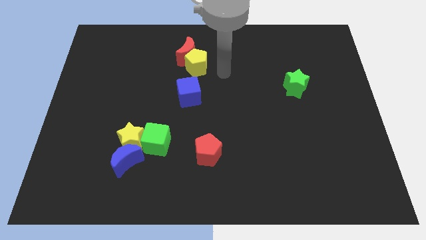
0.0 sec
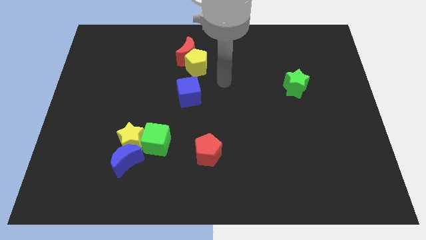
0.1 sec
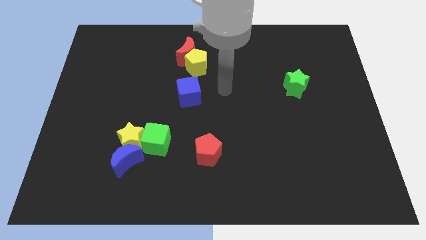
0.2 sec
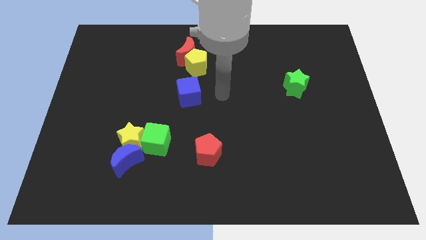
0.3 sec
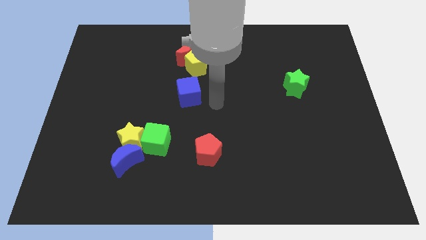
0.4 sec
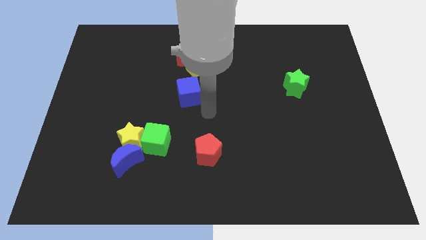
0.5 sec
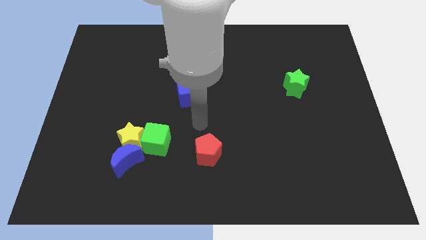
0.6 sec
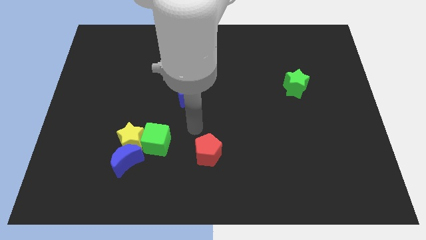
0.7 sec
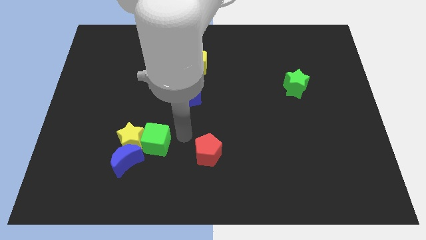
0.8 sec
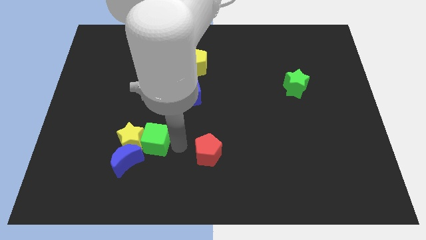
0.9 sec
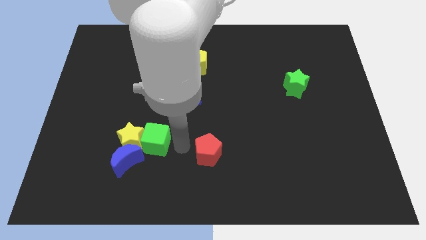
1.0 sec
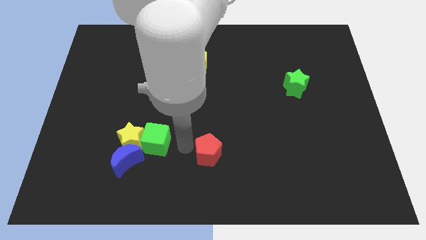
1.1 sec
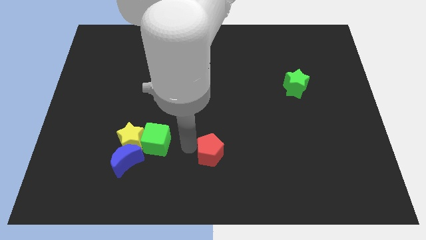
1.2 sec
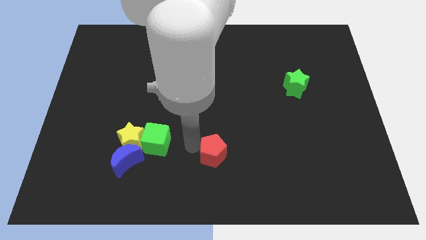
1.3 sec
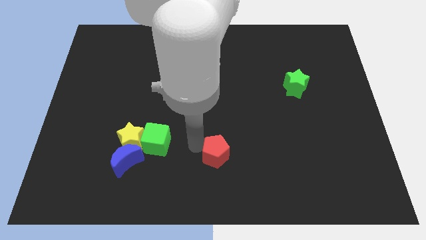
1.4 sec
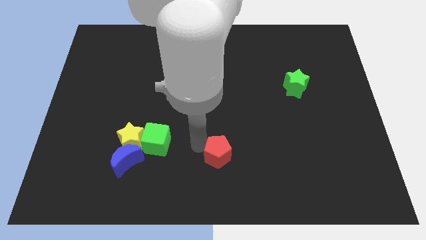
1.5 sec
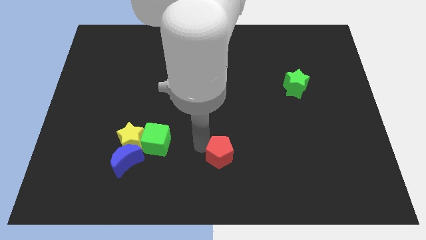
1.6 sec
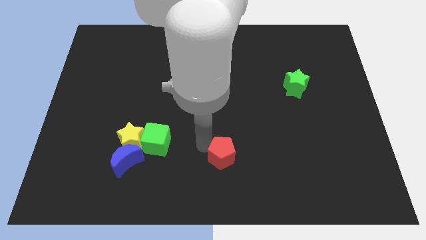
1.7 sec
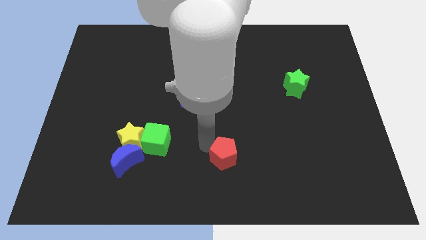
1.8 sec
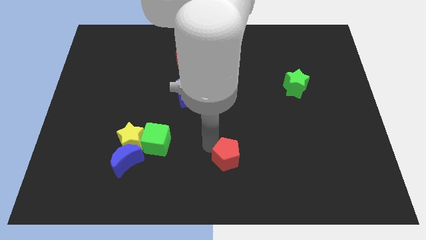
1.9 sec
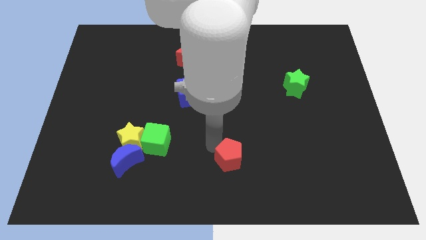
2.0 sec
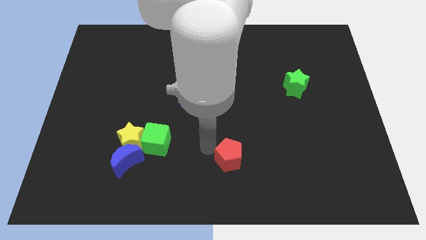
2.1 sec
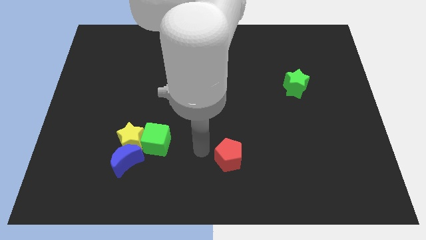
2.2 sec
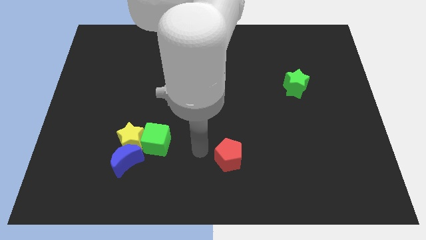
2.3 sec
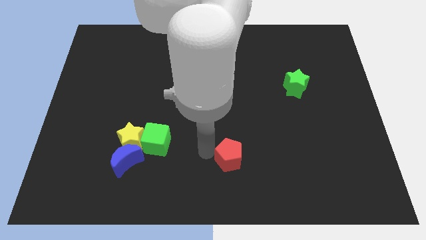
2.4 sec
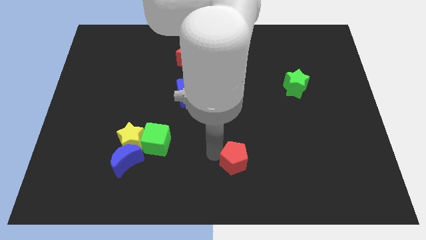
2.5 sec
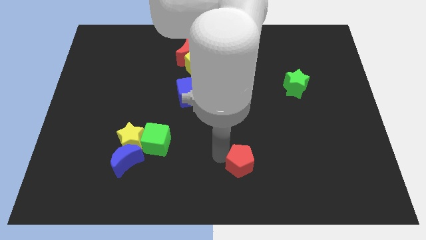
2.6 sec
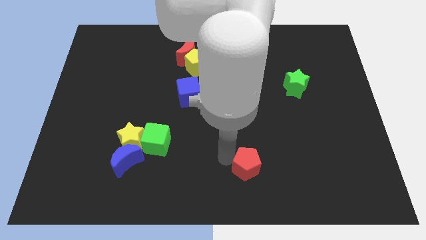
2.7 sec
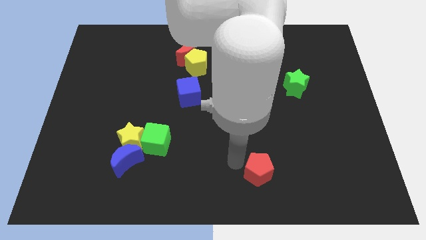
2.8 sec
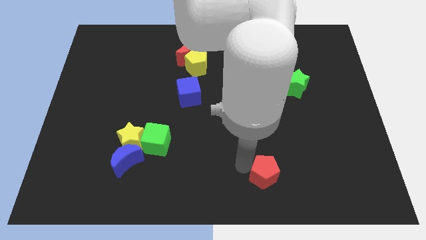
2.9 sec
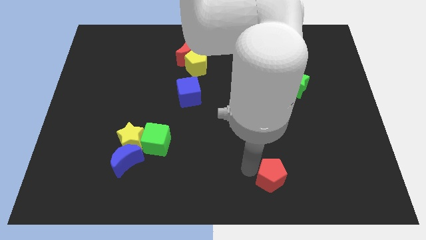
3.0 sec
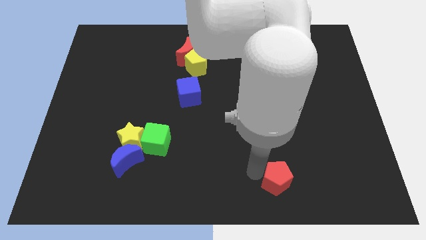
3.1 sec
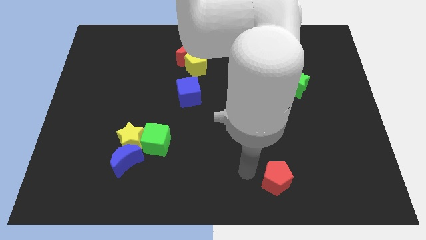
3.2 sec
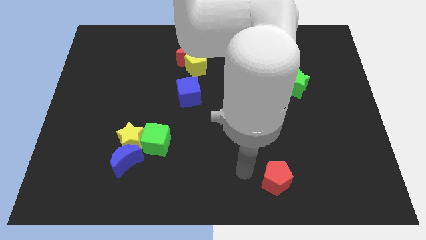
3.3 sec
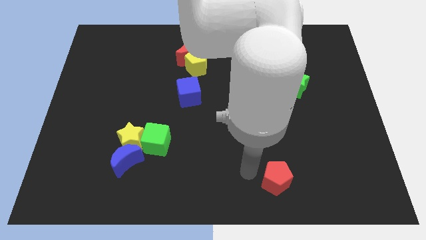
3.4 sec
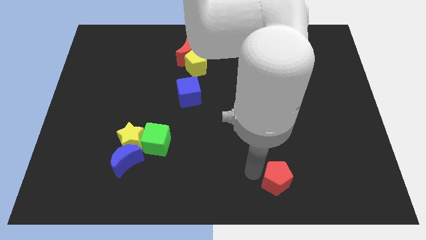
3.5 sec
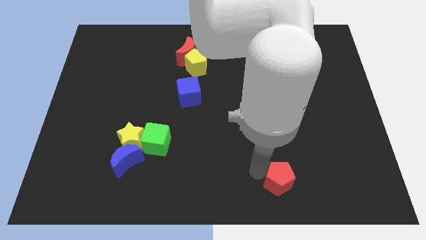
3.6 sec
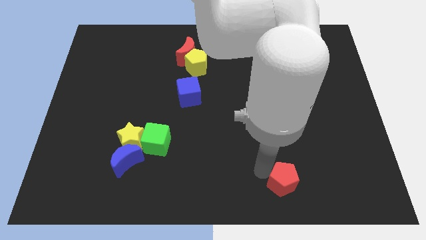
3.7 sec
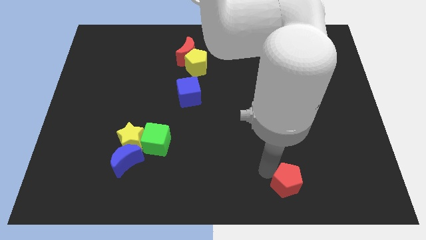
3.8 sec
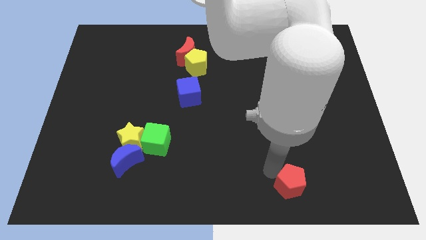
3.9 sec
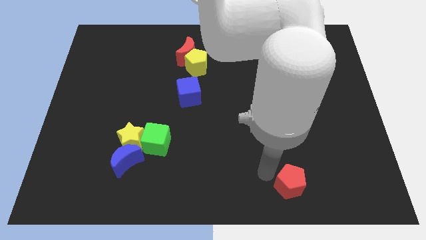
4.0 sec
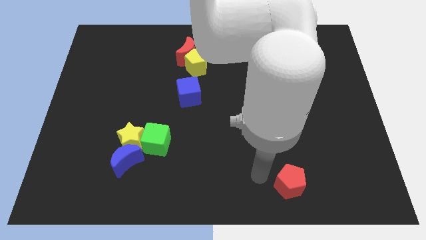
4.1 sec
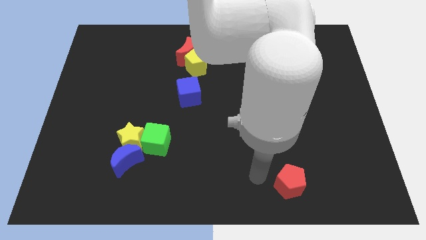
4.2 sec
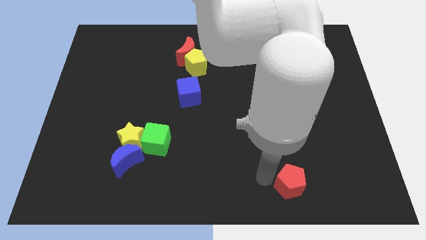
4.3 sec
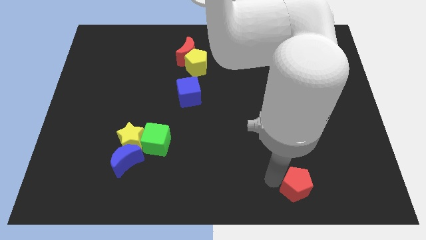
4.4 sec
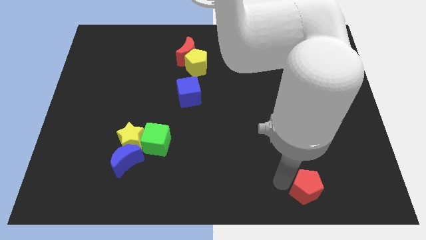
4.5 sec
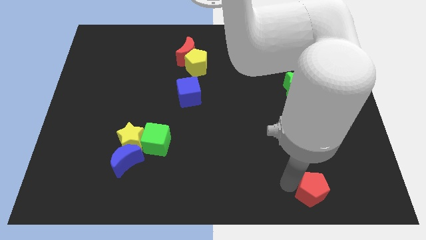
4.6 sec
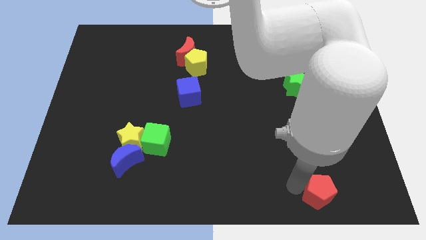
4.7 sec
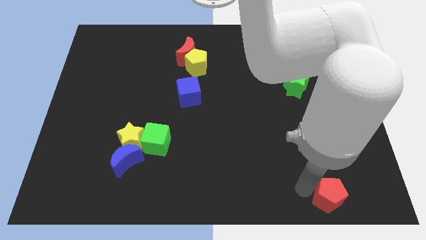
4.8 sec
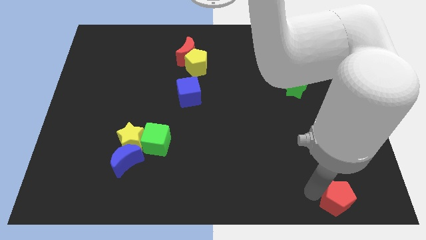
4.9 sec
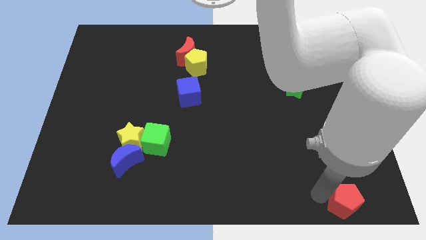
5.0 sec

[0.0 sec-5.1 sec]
move the red pentagon to the bottom right corner

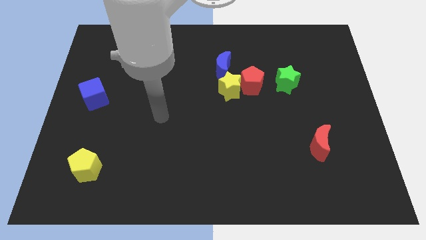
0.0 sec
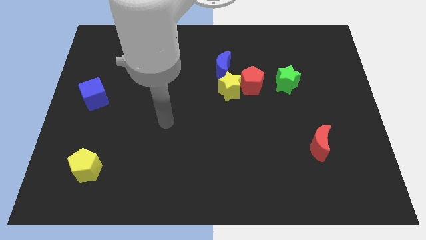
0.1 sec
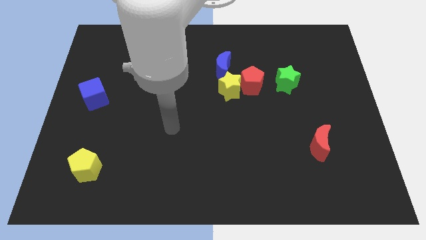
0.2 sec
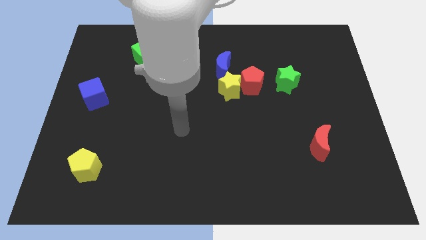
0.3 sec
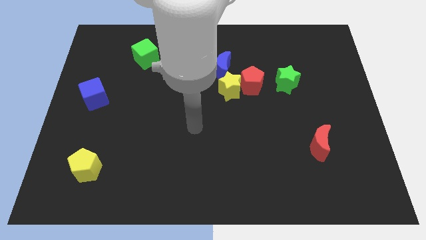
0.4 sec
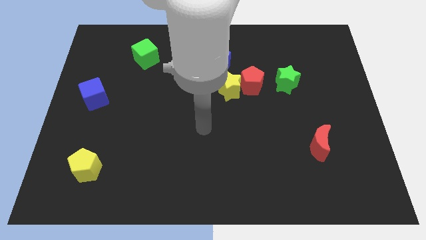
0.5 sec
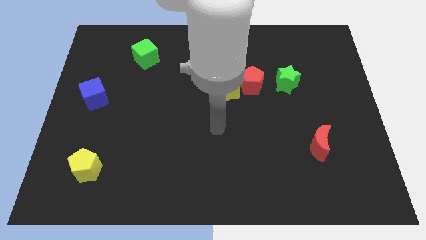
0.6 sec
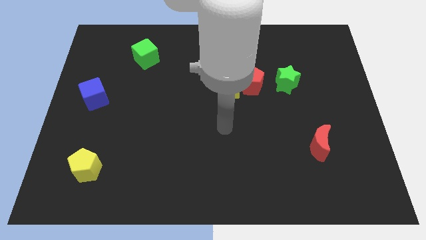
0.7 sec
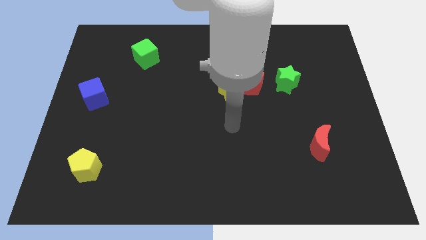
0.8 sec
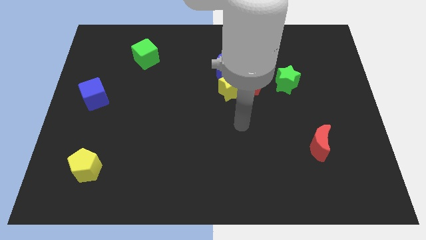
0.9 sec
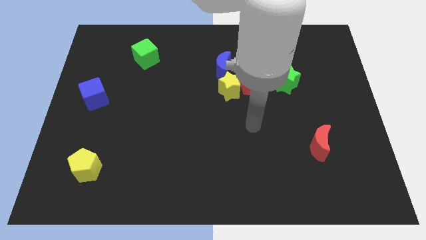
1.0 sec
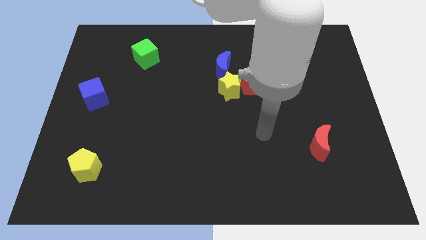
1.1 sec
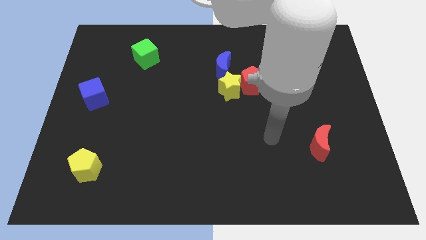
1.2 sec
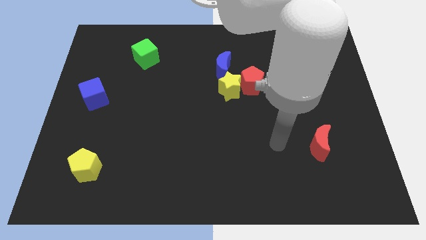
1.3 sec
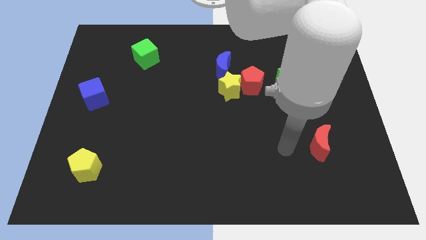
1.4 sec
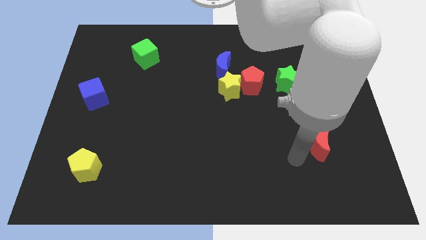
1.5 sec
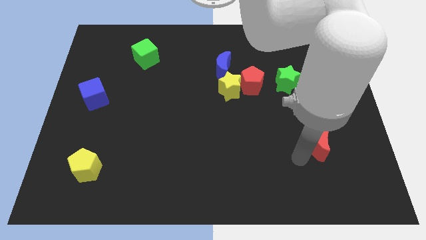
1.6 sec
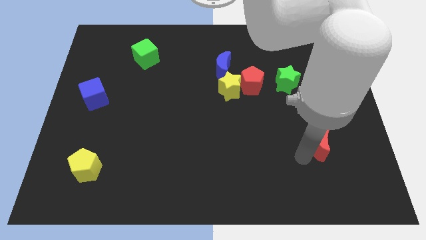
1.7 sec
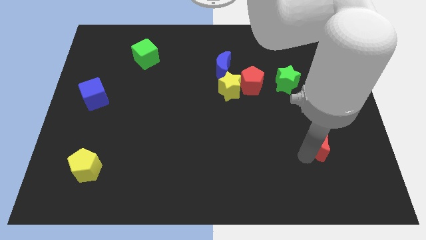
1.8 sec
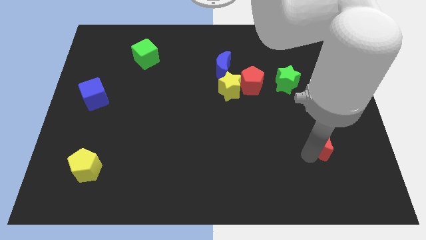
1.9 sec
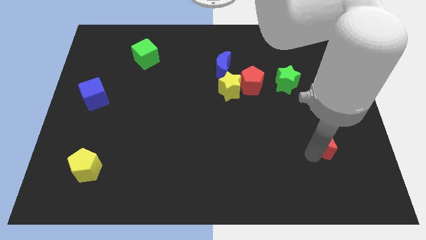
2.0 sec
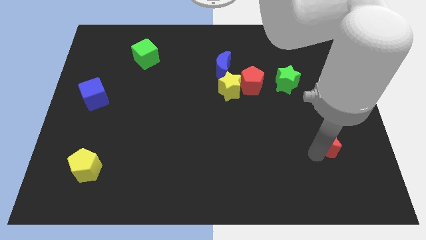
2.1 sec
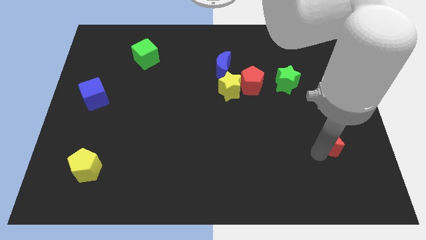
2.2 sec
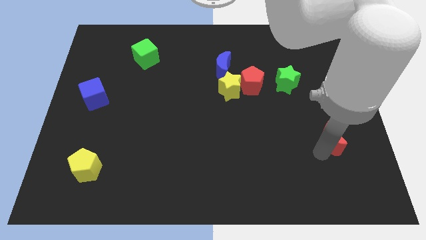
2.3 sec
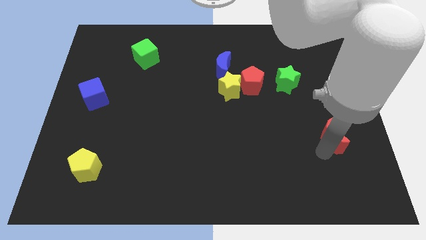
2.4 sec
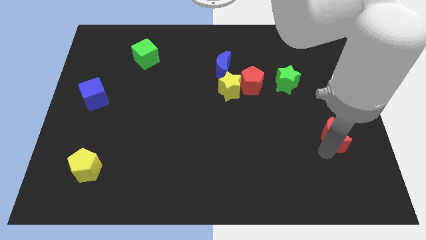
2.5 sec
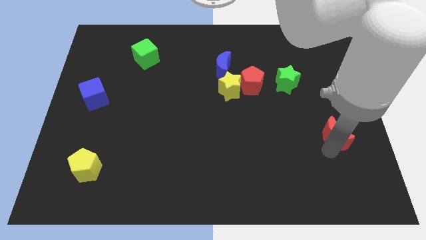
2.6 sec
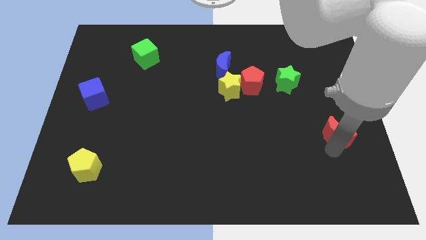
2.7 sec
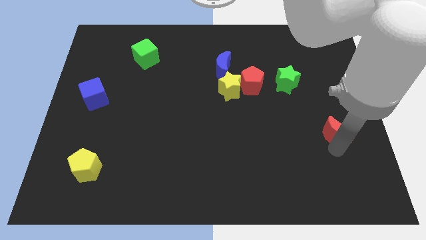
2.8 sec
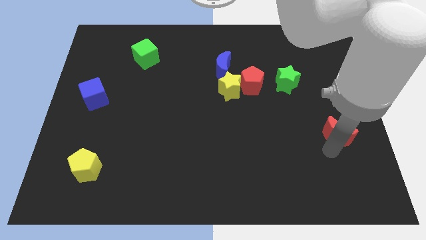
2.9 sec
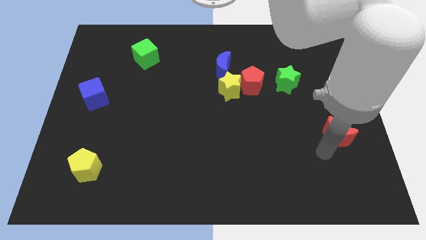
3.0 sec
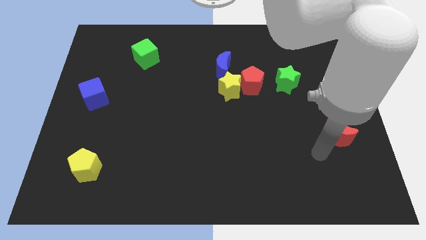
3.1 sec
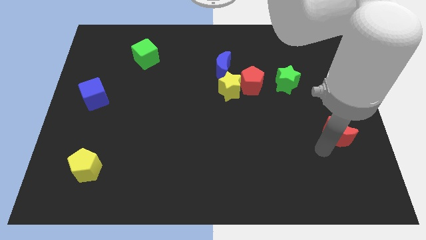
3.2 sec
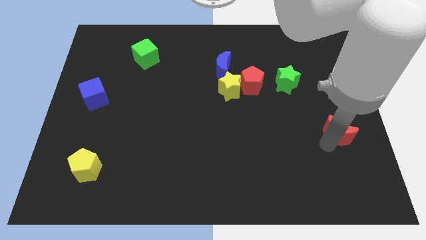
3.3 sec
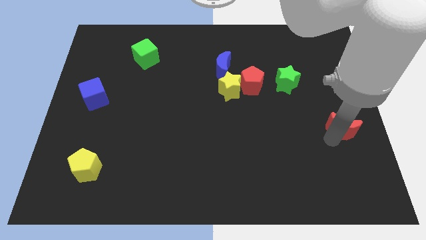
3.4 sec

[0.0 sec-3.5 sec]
slide the red moon to the right side of the board
